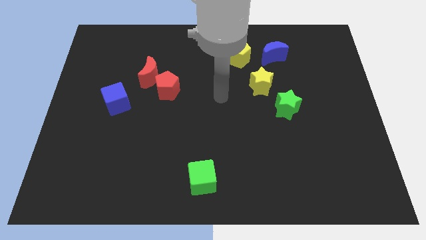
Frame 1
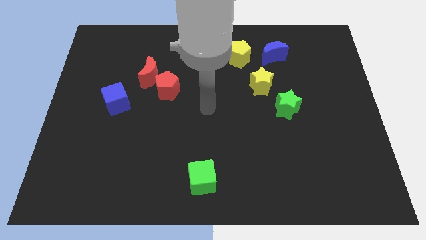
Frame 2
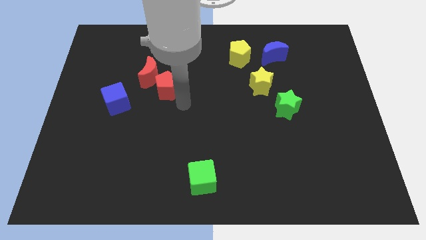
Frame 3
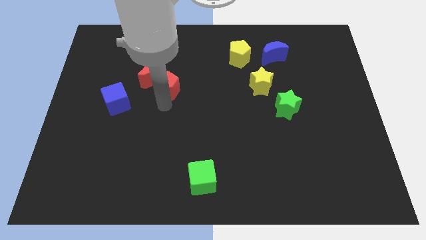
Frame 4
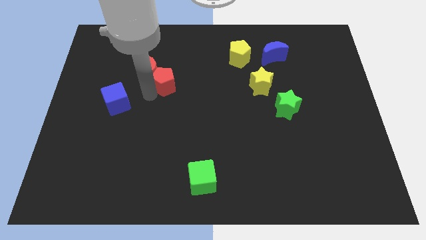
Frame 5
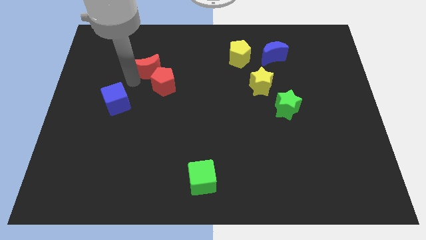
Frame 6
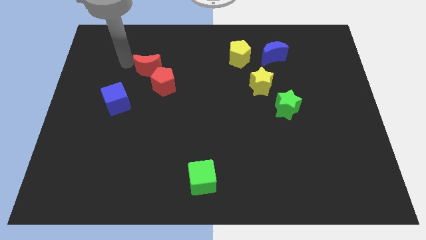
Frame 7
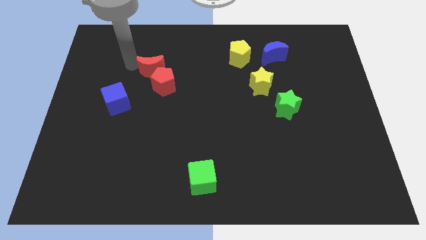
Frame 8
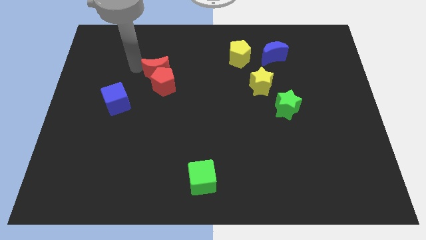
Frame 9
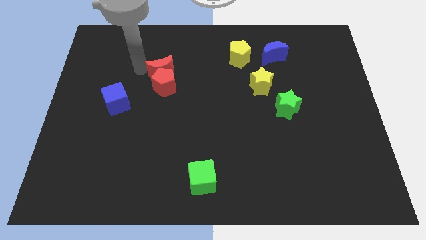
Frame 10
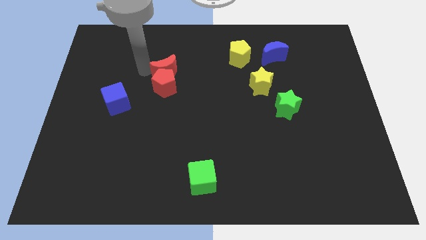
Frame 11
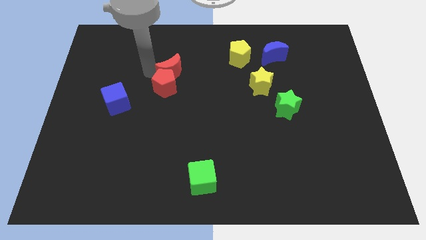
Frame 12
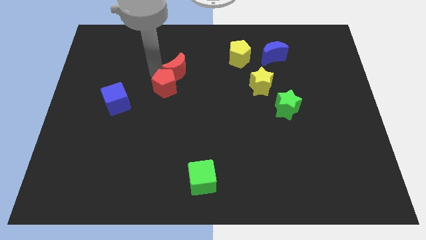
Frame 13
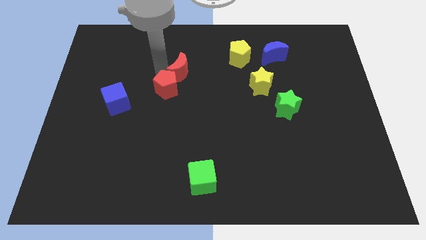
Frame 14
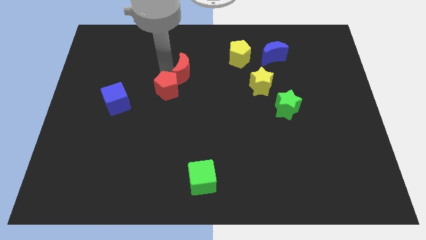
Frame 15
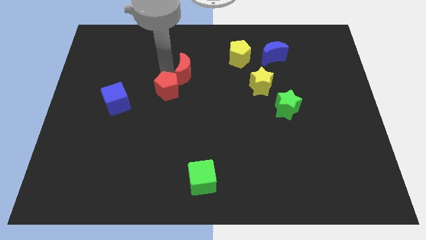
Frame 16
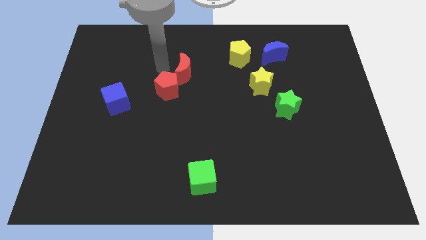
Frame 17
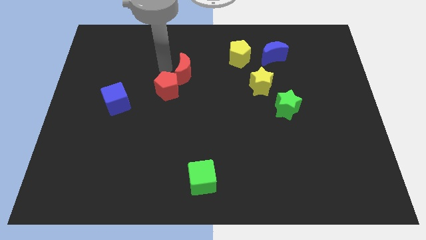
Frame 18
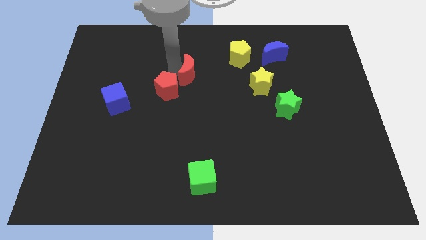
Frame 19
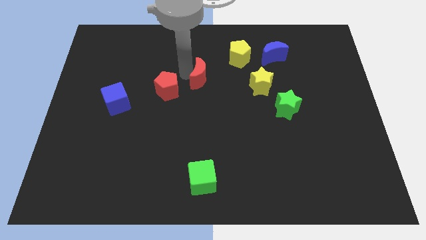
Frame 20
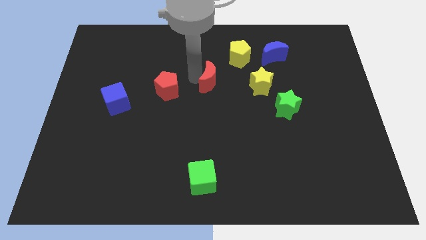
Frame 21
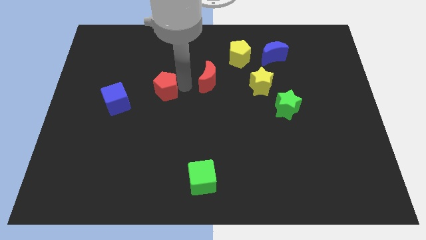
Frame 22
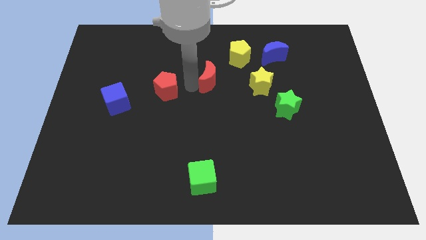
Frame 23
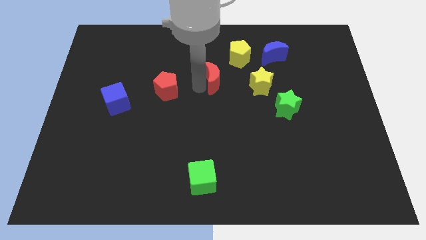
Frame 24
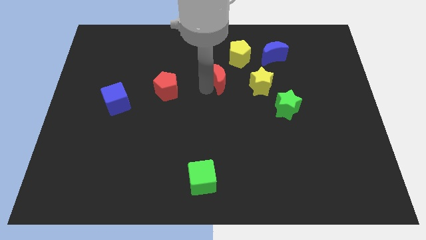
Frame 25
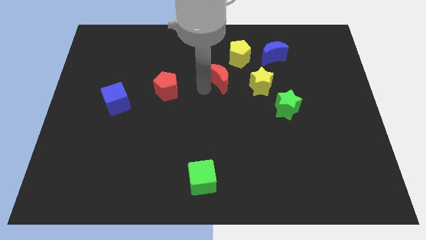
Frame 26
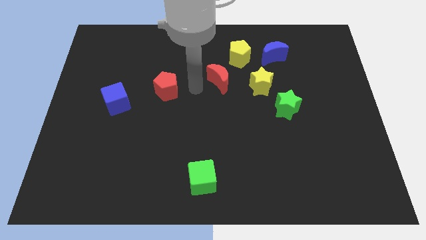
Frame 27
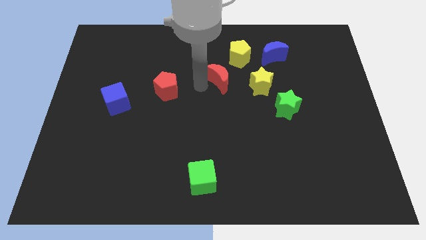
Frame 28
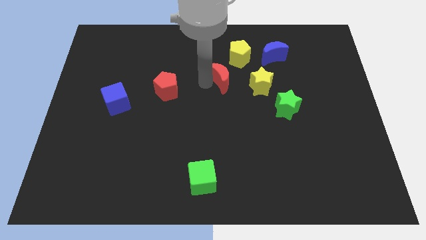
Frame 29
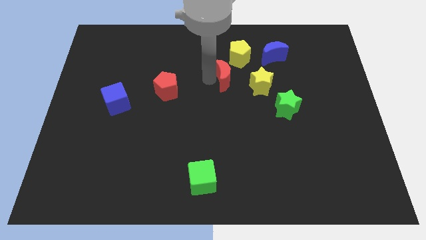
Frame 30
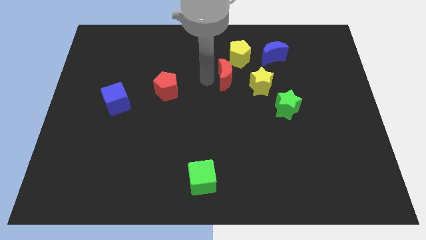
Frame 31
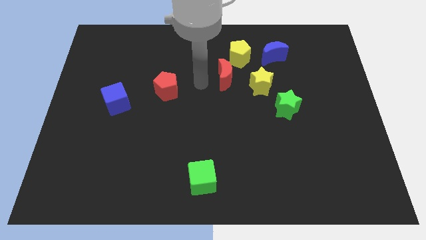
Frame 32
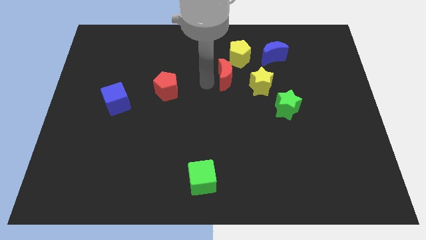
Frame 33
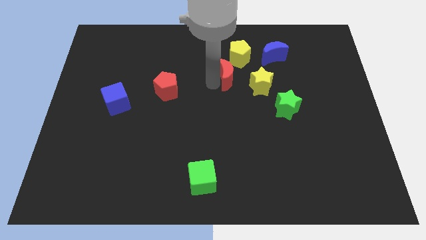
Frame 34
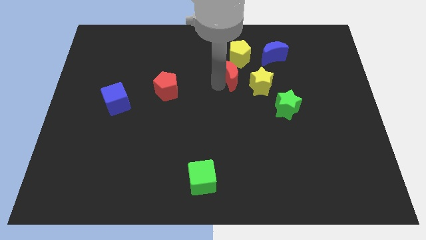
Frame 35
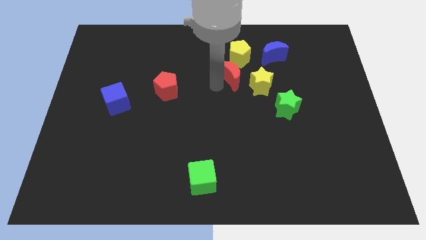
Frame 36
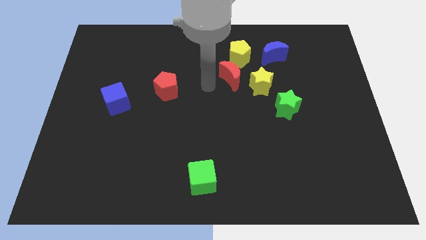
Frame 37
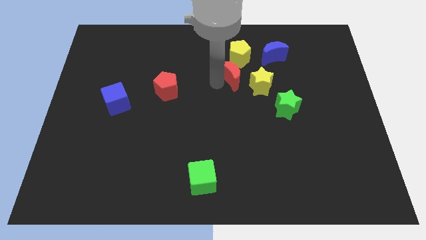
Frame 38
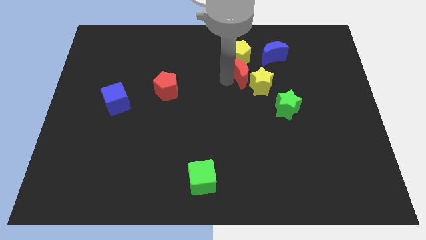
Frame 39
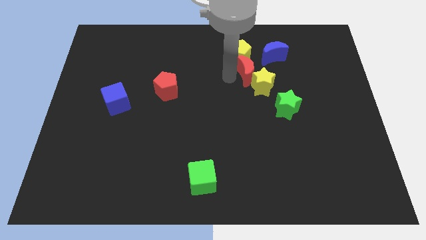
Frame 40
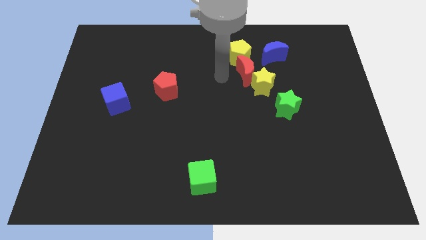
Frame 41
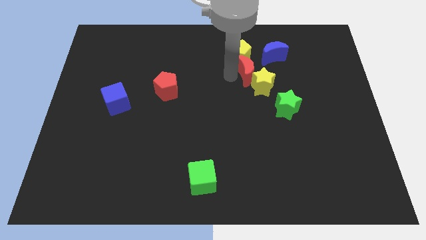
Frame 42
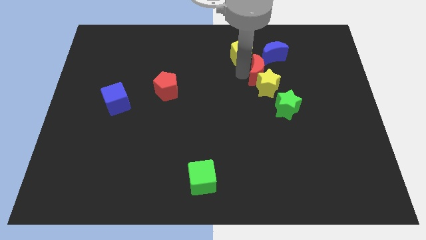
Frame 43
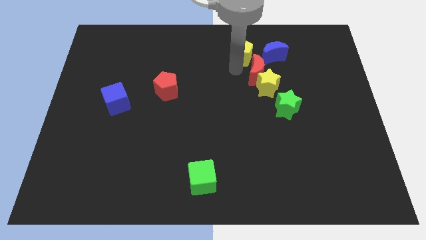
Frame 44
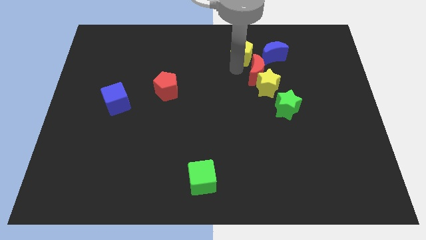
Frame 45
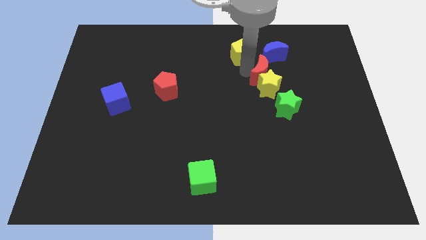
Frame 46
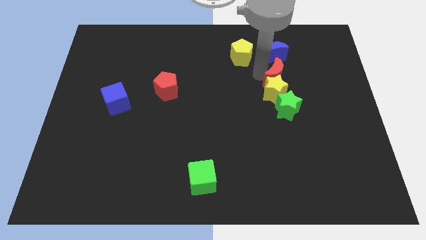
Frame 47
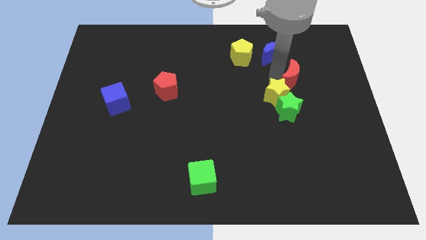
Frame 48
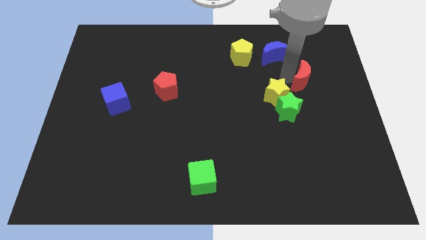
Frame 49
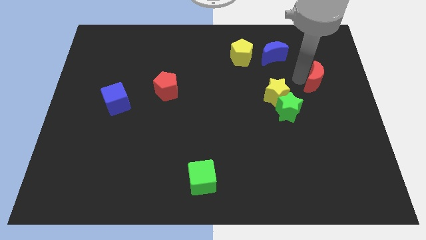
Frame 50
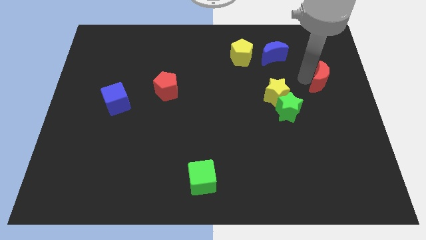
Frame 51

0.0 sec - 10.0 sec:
slide the red moon to the right side of the board

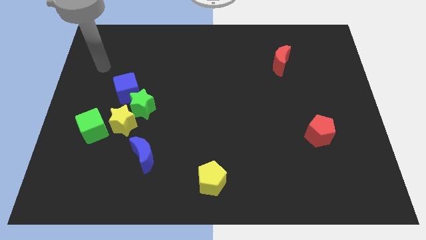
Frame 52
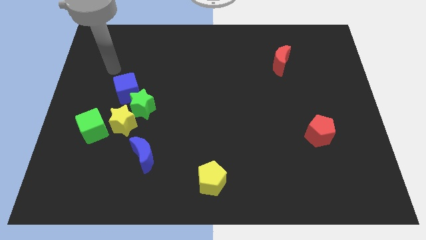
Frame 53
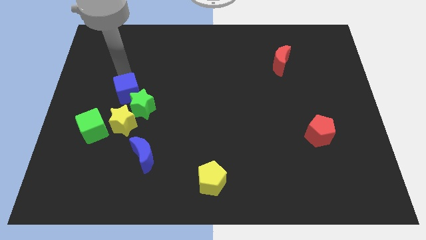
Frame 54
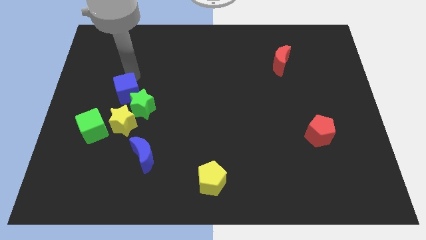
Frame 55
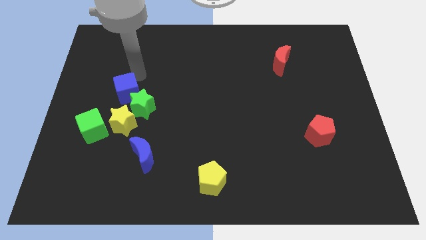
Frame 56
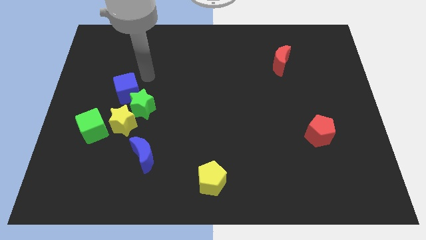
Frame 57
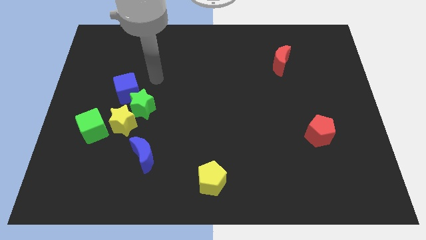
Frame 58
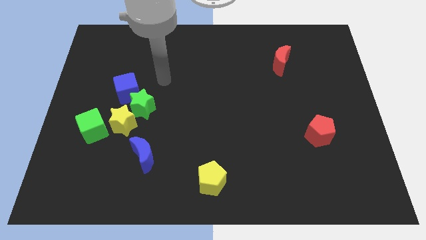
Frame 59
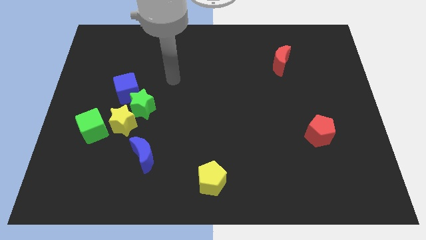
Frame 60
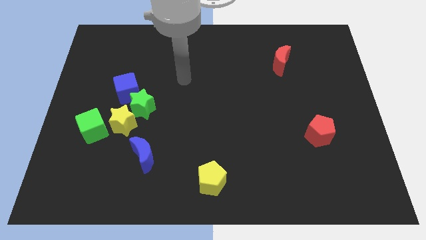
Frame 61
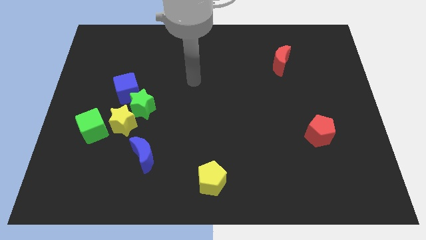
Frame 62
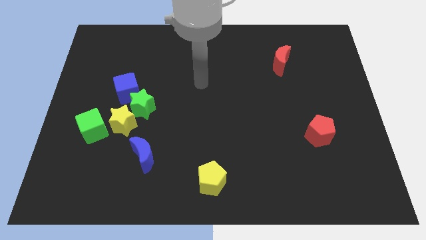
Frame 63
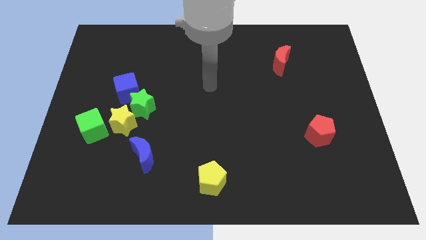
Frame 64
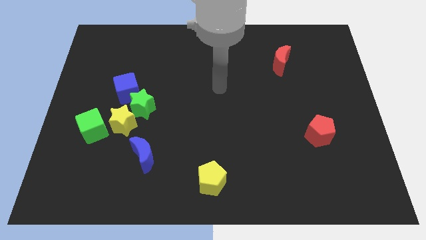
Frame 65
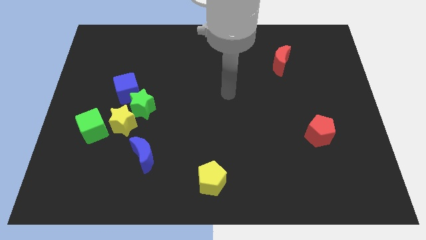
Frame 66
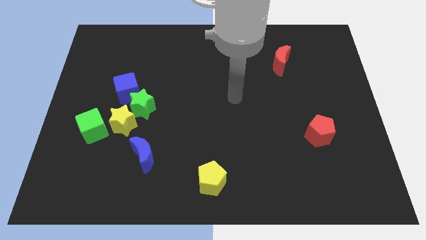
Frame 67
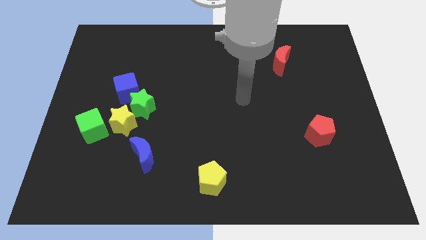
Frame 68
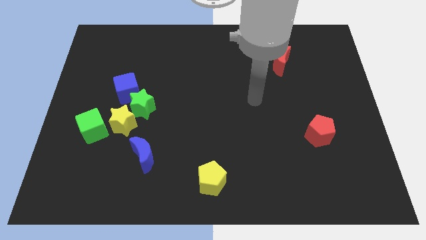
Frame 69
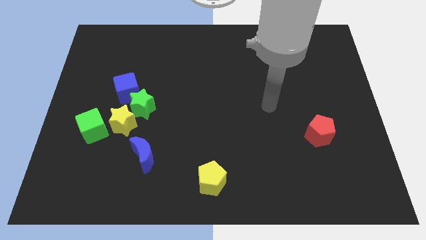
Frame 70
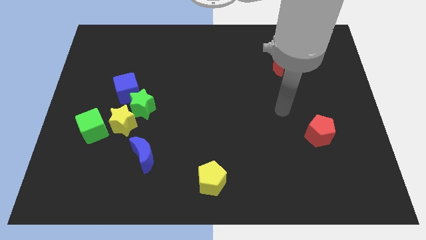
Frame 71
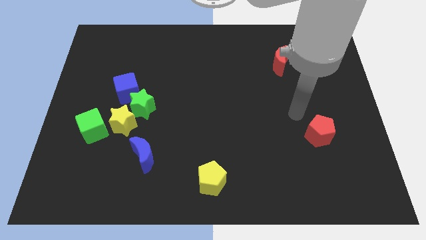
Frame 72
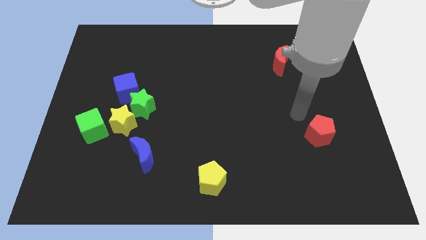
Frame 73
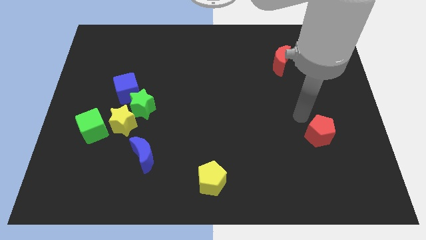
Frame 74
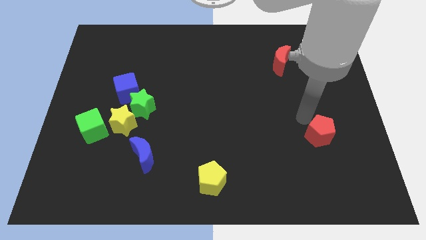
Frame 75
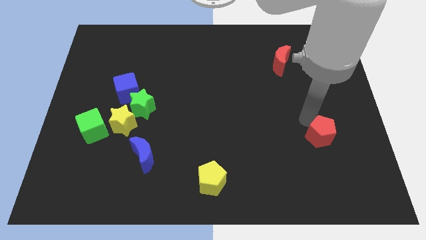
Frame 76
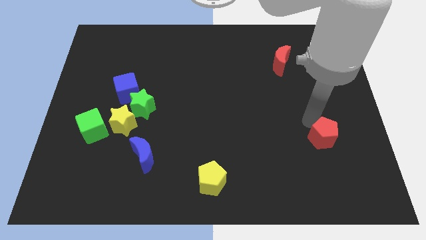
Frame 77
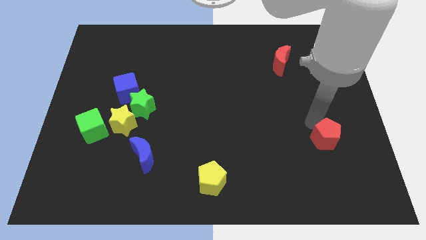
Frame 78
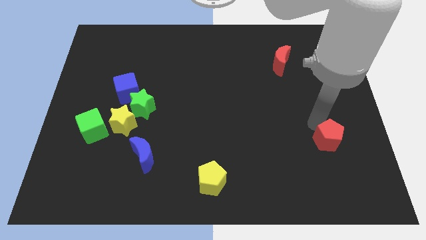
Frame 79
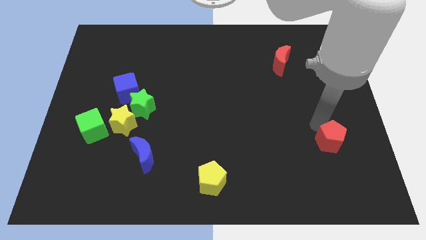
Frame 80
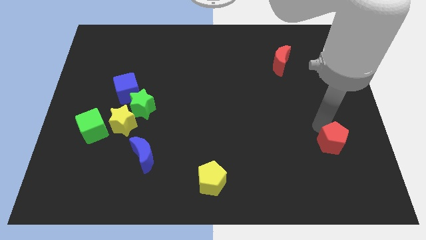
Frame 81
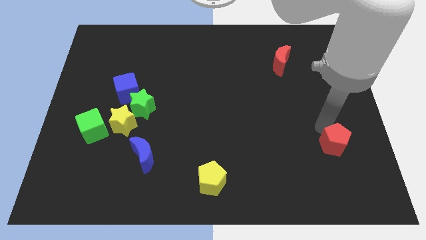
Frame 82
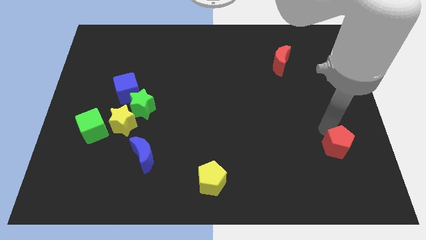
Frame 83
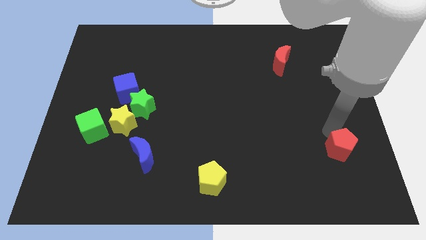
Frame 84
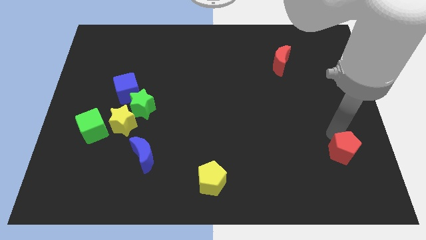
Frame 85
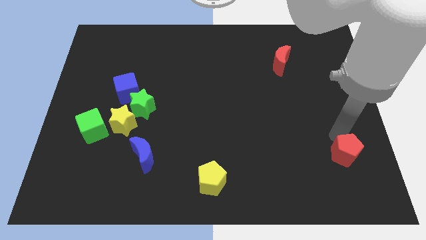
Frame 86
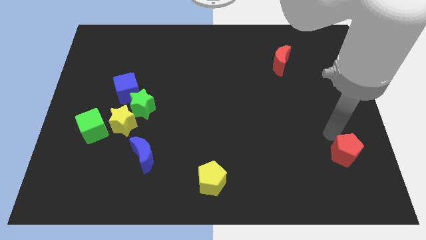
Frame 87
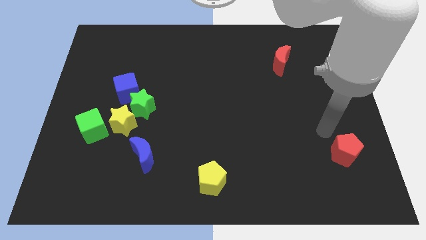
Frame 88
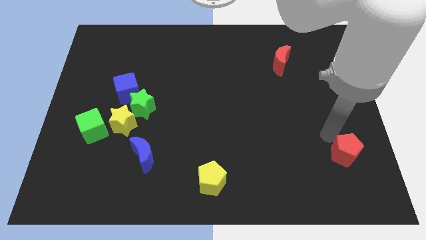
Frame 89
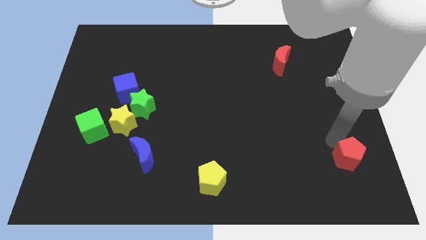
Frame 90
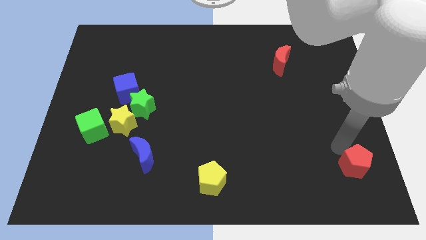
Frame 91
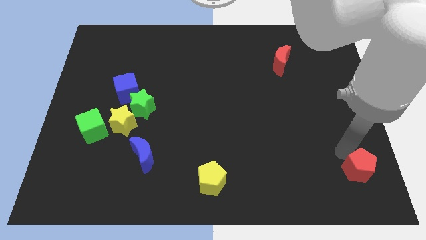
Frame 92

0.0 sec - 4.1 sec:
slide the red pentagon to the lower right corner
